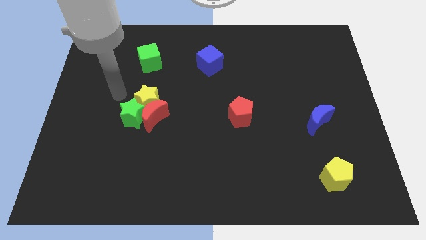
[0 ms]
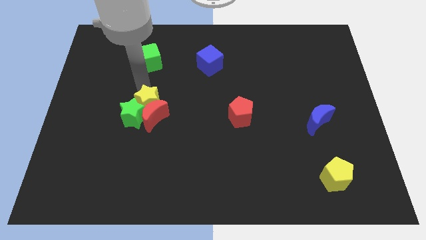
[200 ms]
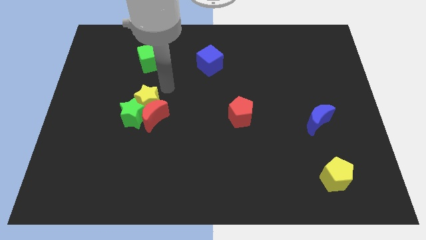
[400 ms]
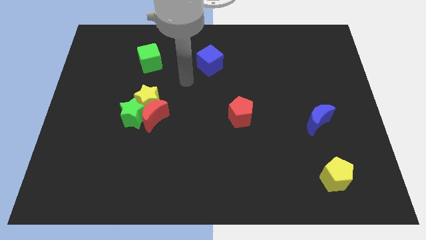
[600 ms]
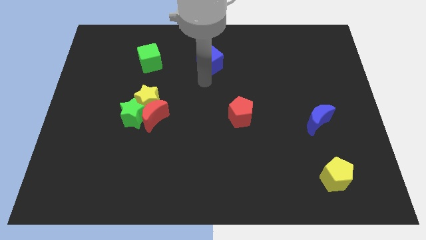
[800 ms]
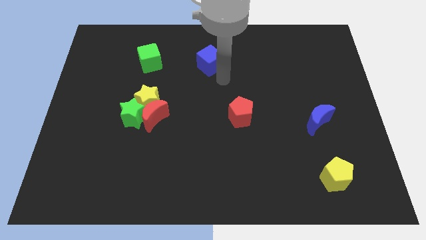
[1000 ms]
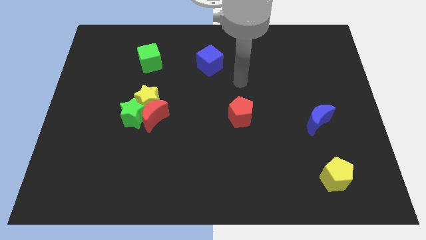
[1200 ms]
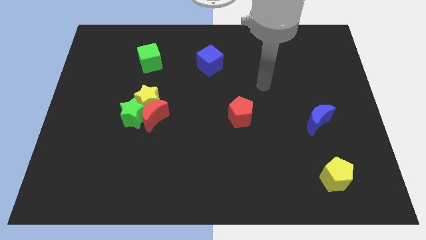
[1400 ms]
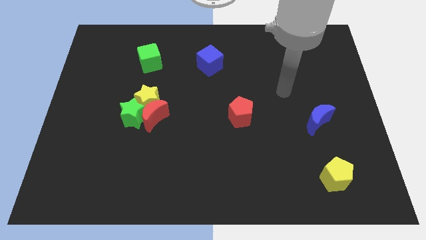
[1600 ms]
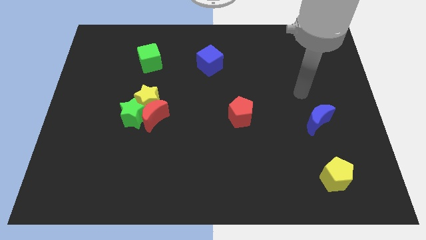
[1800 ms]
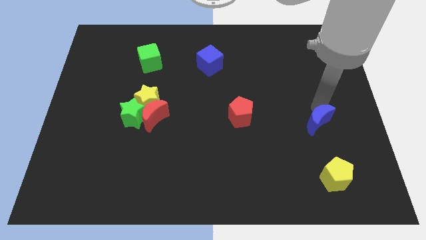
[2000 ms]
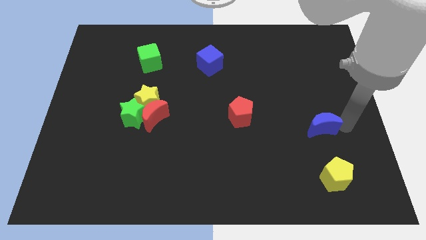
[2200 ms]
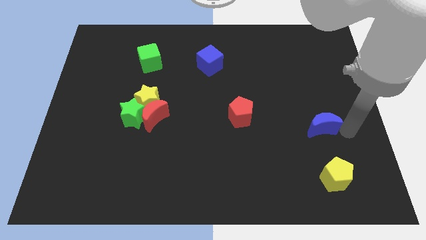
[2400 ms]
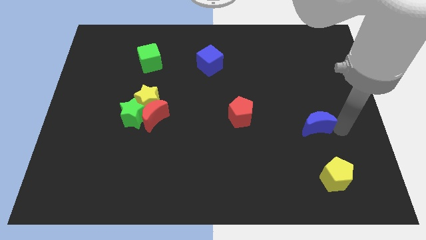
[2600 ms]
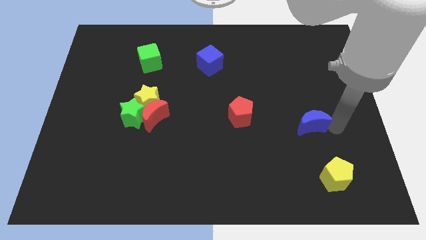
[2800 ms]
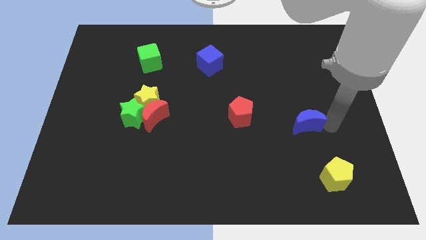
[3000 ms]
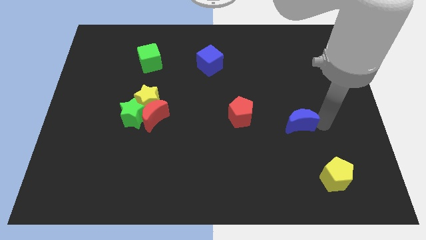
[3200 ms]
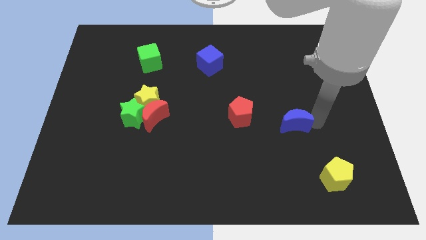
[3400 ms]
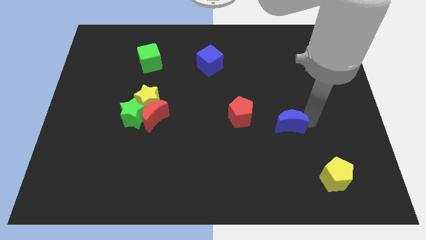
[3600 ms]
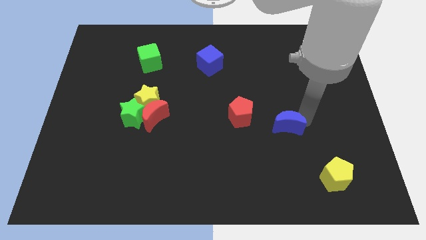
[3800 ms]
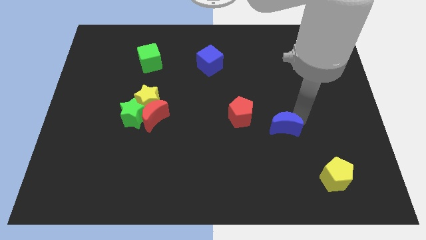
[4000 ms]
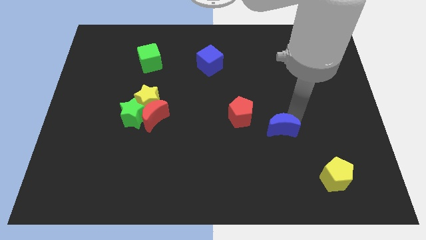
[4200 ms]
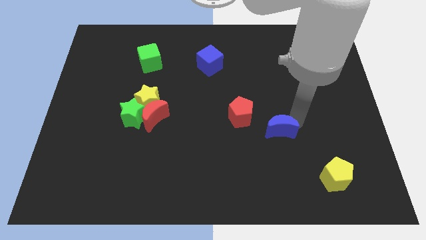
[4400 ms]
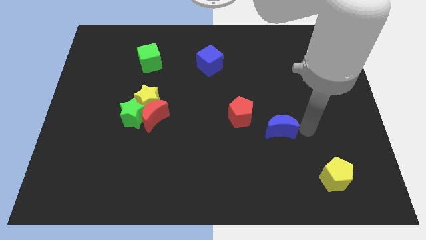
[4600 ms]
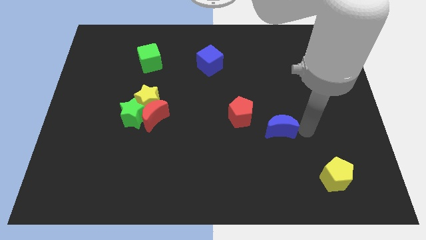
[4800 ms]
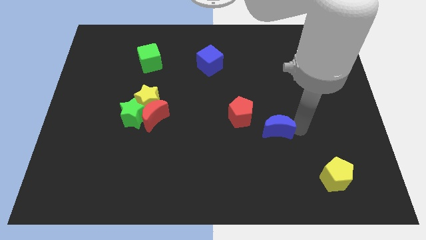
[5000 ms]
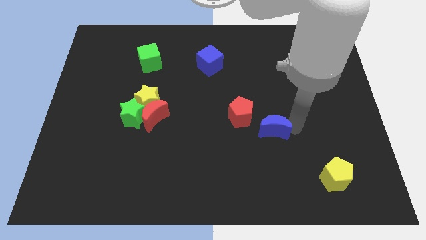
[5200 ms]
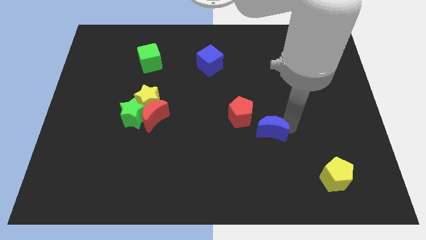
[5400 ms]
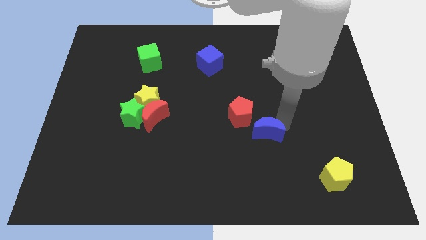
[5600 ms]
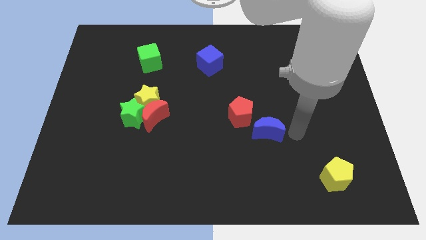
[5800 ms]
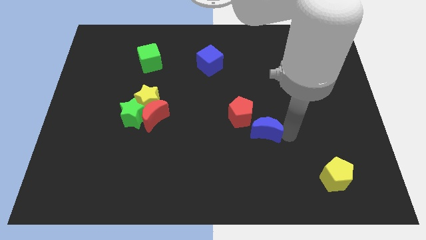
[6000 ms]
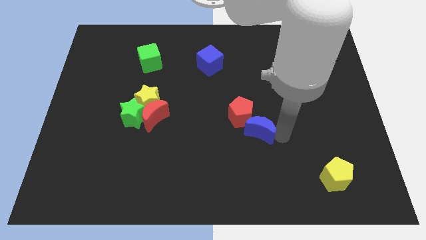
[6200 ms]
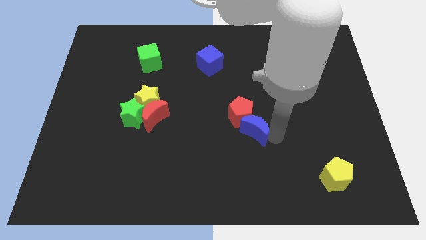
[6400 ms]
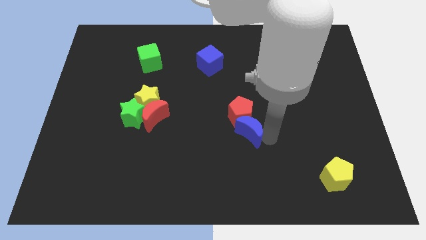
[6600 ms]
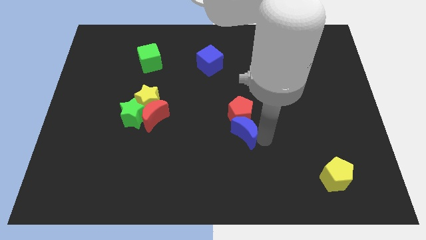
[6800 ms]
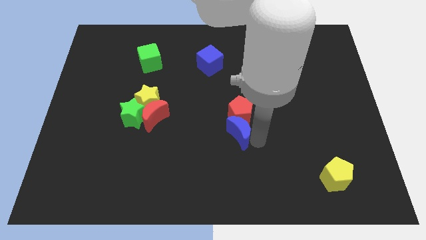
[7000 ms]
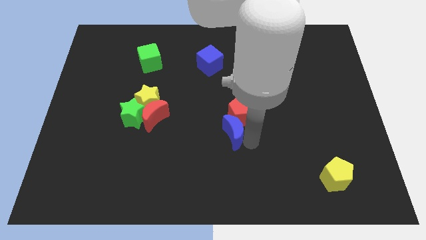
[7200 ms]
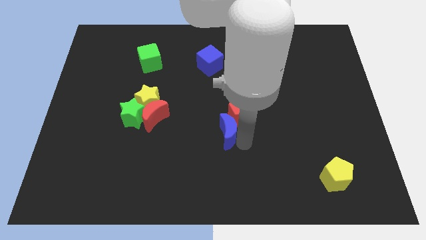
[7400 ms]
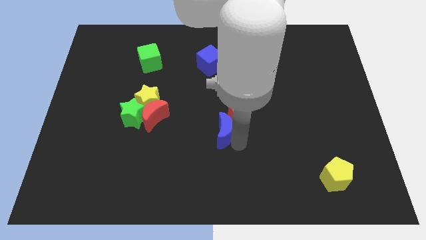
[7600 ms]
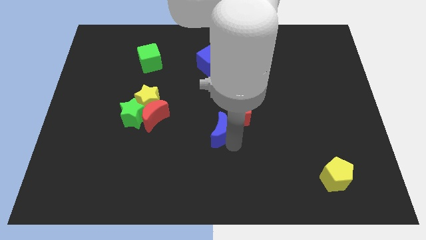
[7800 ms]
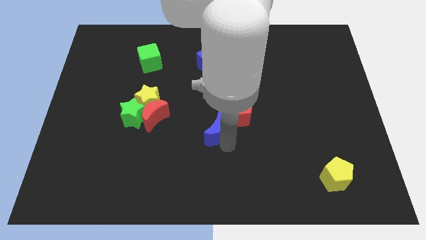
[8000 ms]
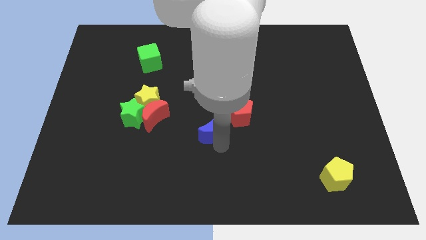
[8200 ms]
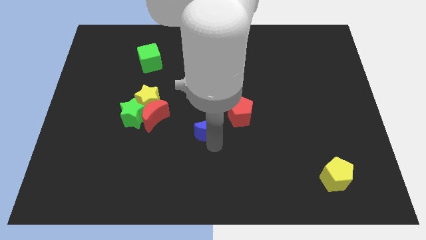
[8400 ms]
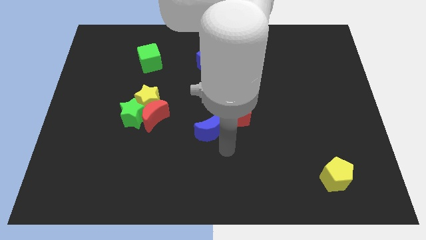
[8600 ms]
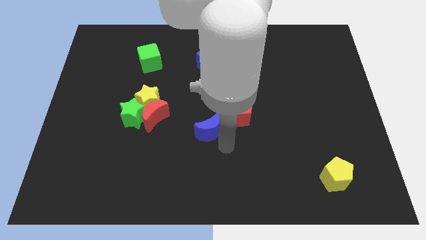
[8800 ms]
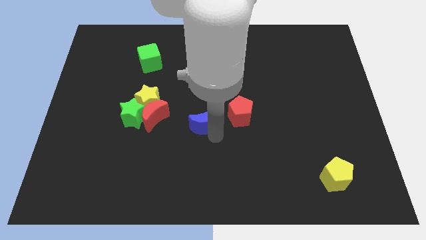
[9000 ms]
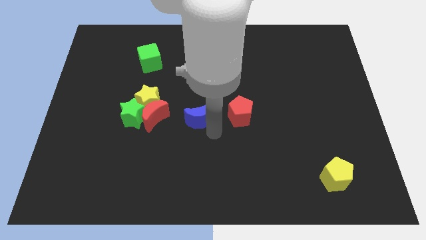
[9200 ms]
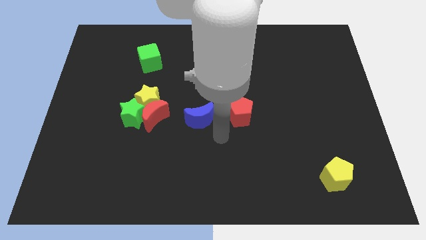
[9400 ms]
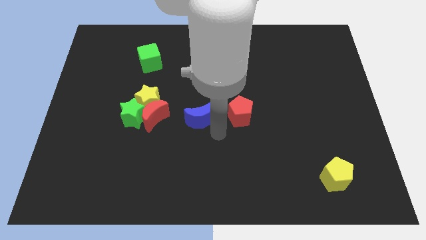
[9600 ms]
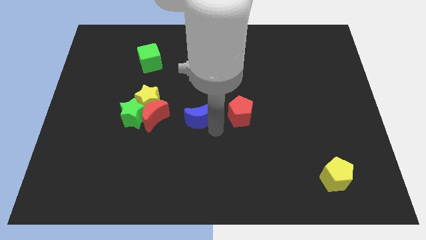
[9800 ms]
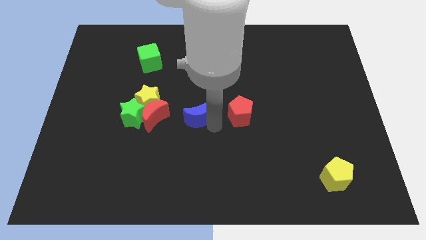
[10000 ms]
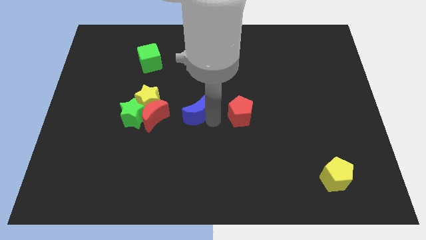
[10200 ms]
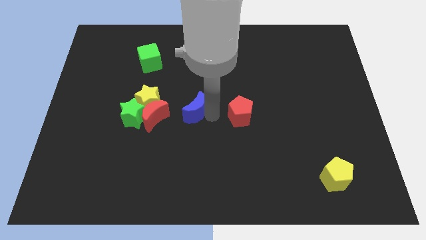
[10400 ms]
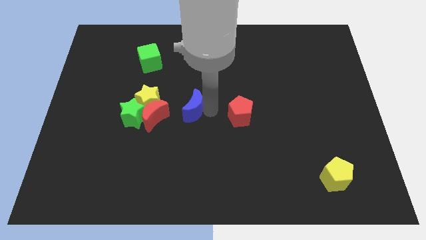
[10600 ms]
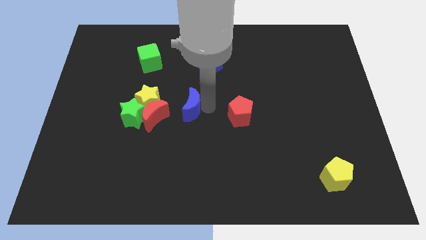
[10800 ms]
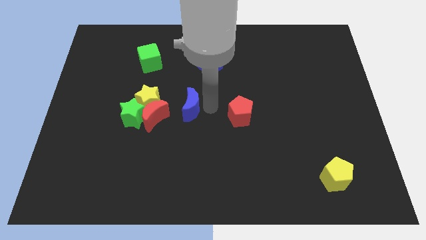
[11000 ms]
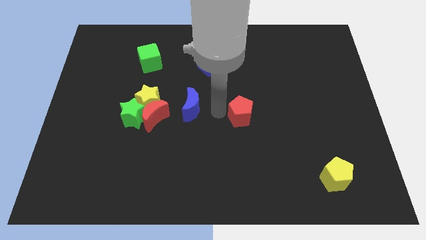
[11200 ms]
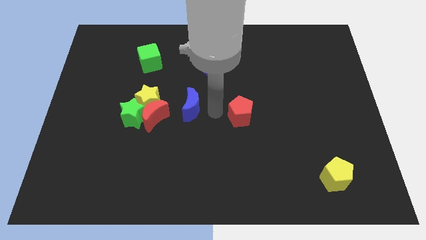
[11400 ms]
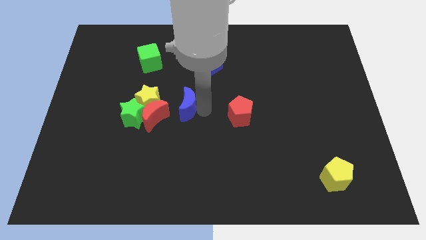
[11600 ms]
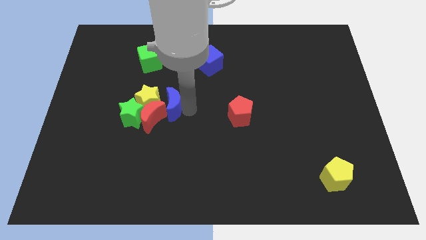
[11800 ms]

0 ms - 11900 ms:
move the blue moon close to the yellow star

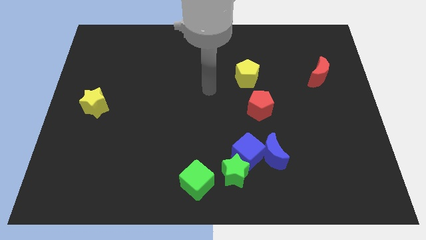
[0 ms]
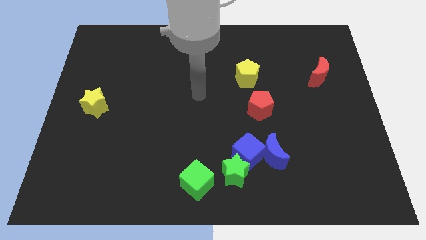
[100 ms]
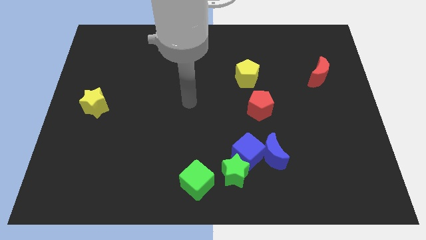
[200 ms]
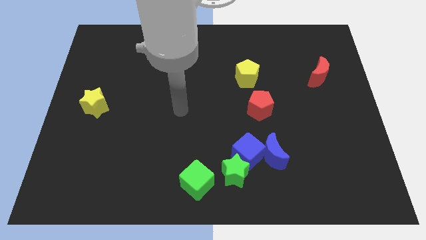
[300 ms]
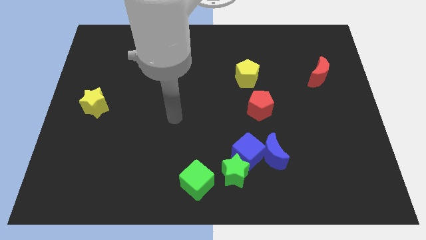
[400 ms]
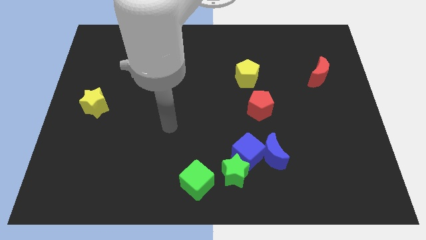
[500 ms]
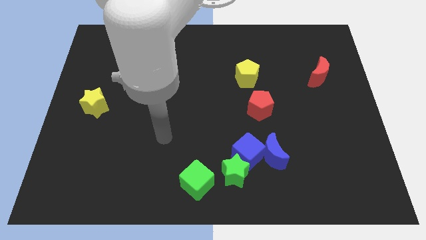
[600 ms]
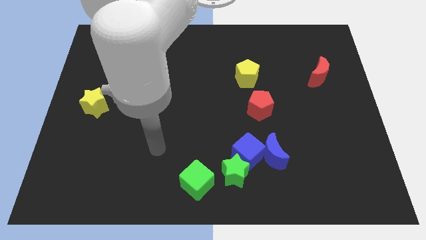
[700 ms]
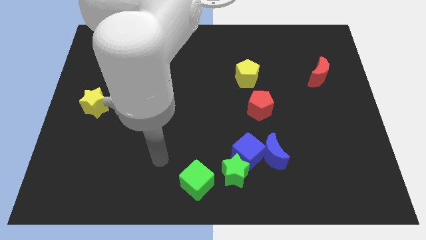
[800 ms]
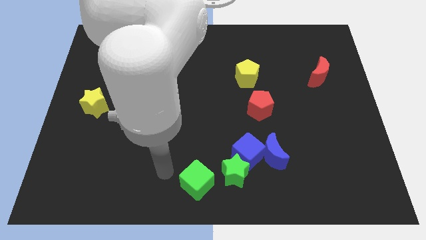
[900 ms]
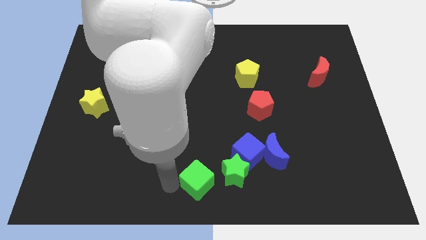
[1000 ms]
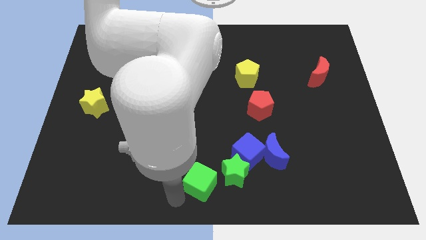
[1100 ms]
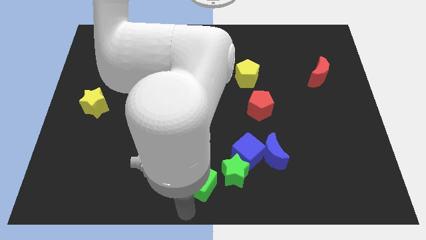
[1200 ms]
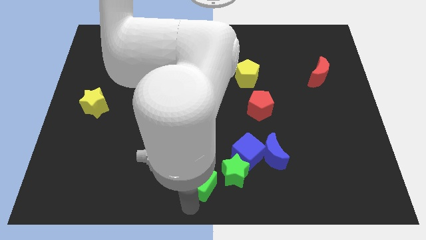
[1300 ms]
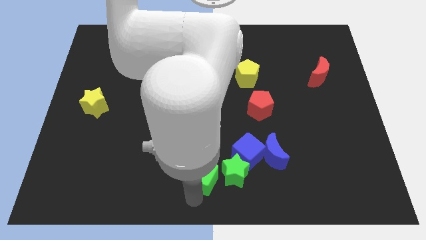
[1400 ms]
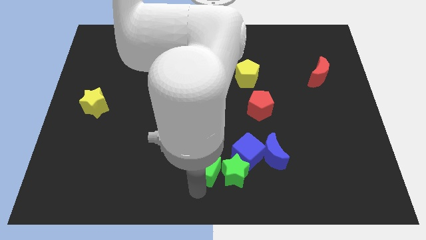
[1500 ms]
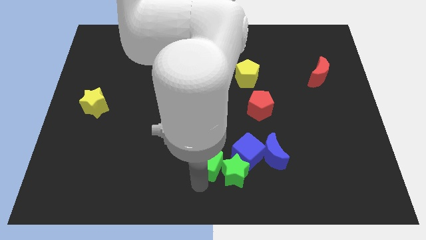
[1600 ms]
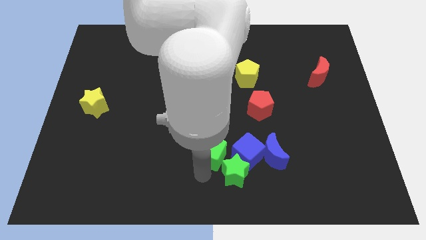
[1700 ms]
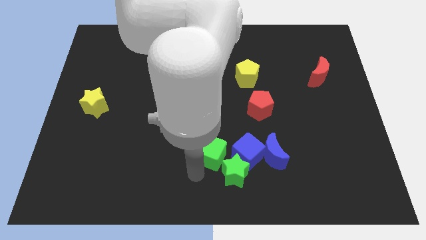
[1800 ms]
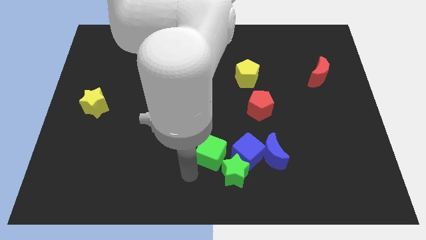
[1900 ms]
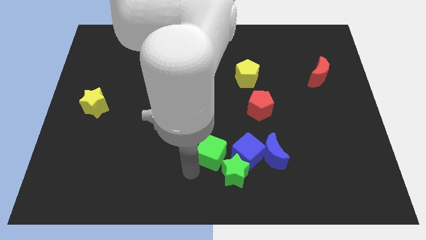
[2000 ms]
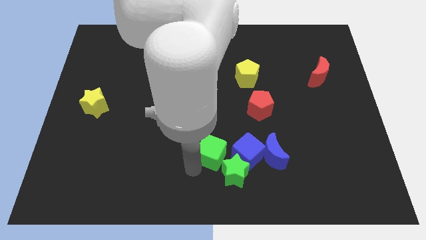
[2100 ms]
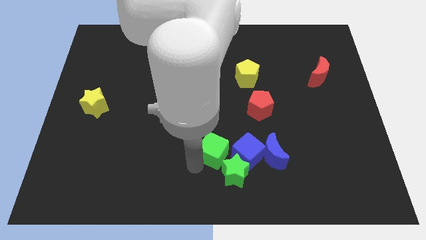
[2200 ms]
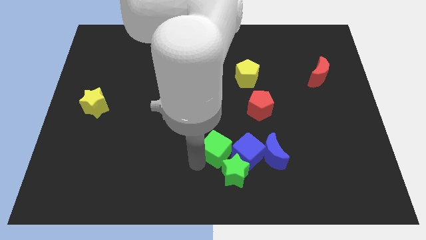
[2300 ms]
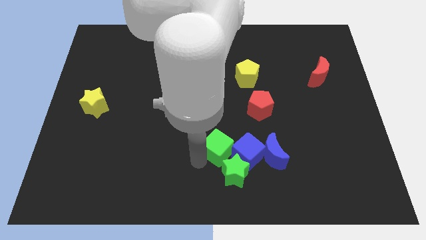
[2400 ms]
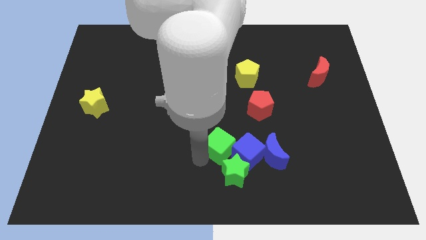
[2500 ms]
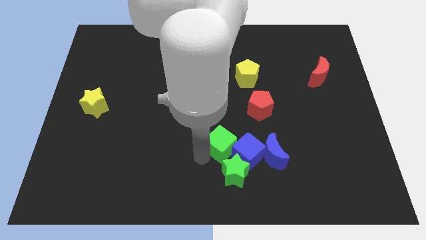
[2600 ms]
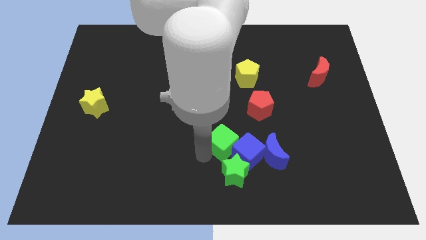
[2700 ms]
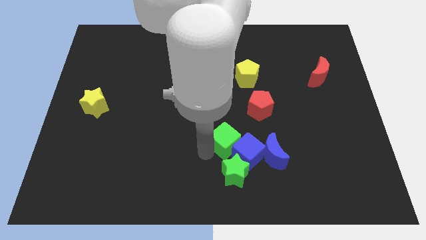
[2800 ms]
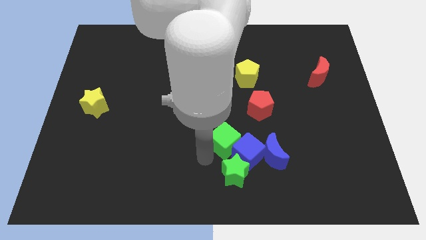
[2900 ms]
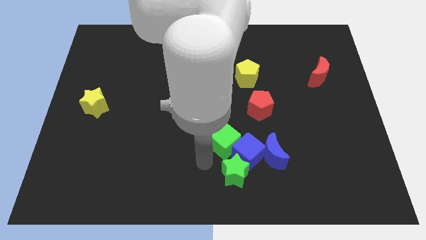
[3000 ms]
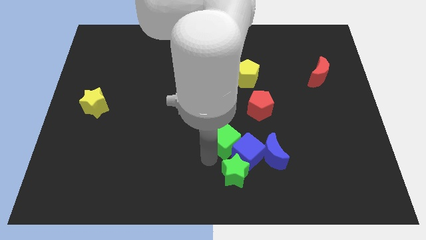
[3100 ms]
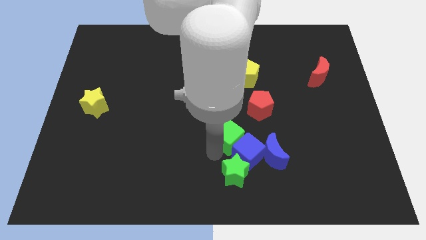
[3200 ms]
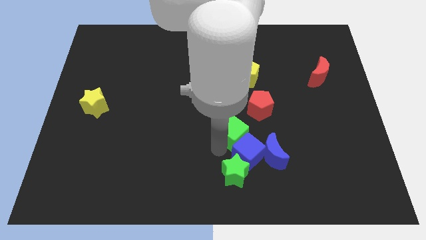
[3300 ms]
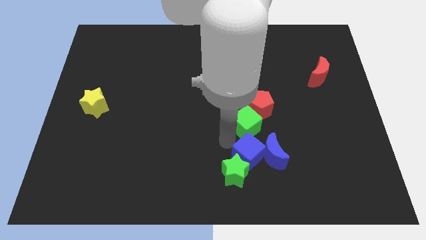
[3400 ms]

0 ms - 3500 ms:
push the green cube close to the red pentagon
